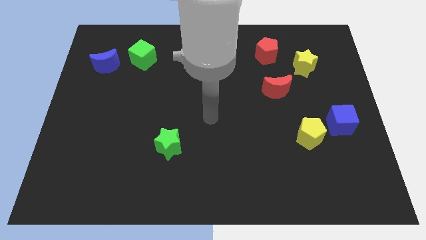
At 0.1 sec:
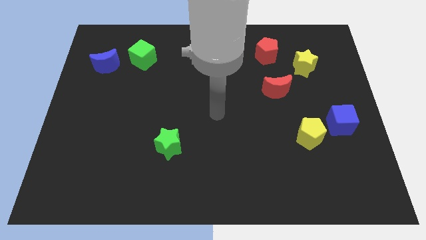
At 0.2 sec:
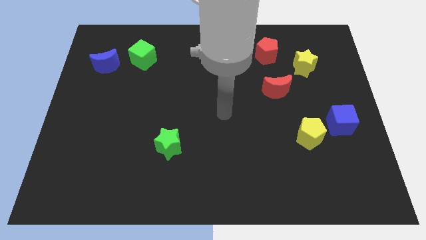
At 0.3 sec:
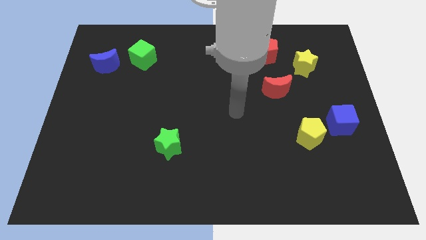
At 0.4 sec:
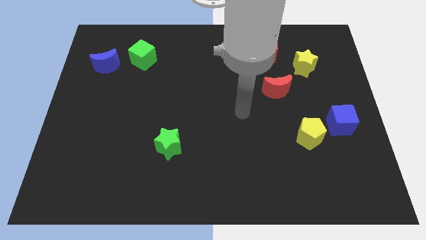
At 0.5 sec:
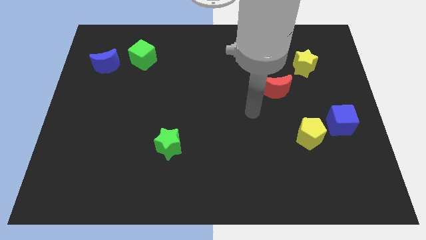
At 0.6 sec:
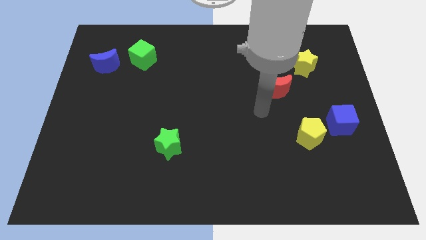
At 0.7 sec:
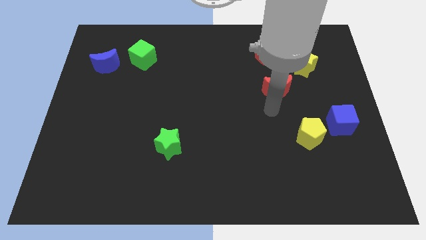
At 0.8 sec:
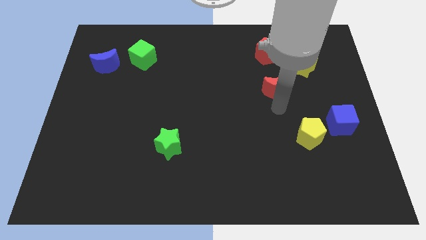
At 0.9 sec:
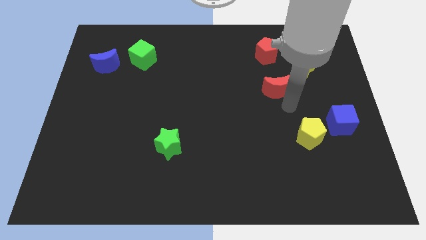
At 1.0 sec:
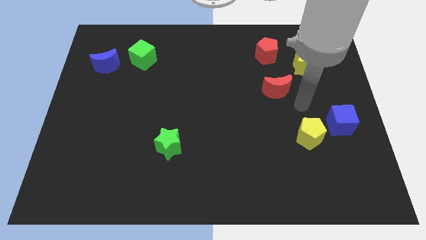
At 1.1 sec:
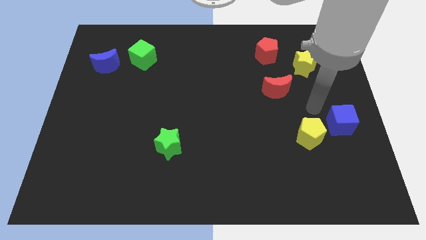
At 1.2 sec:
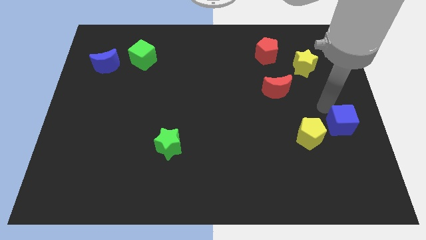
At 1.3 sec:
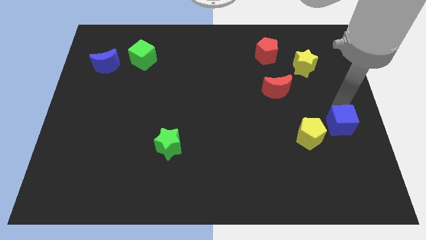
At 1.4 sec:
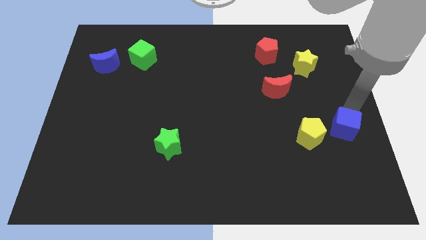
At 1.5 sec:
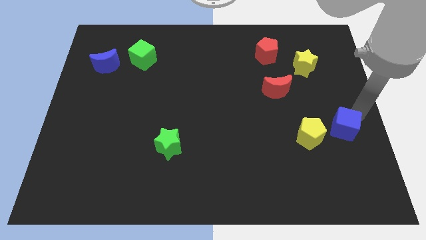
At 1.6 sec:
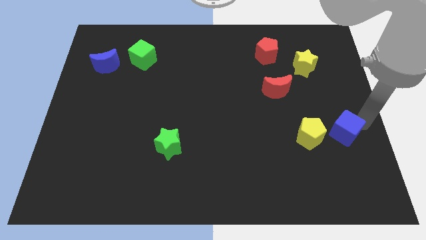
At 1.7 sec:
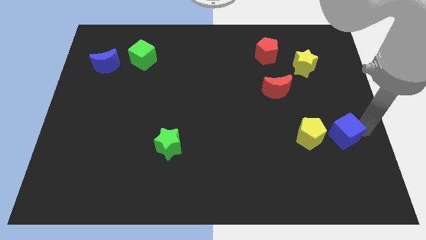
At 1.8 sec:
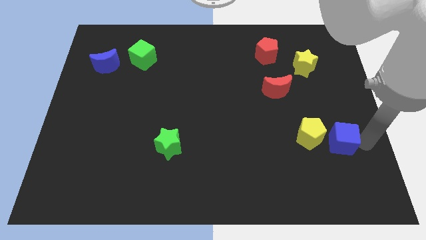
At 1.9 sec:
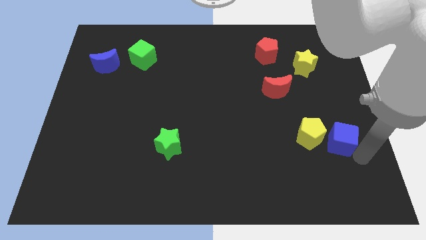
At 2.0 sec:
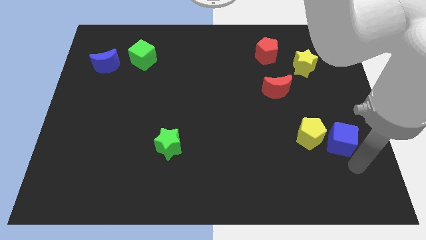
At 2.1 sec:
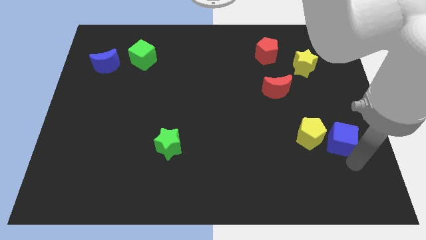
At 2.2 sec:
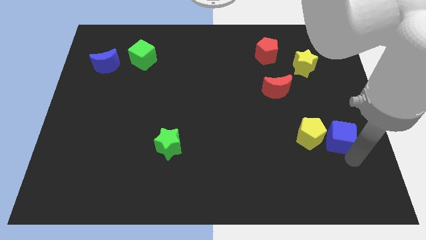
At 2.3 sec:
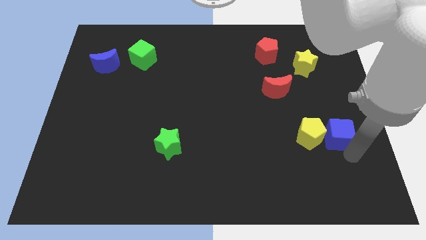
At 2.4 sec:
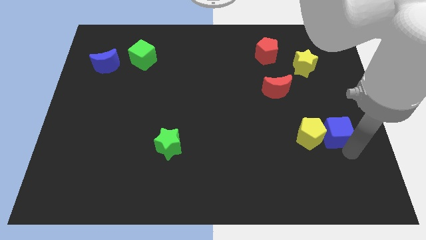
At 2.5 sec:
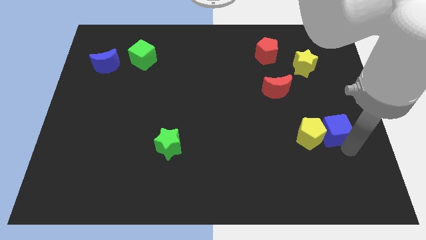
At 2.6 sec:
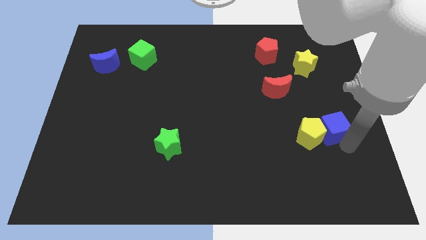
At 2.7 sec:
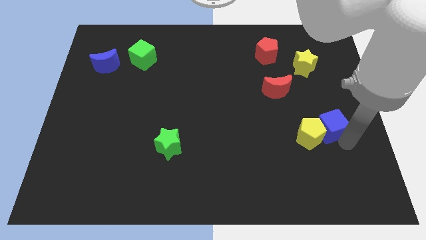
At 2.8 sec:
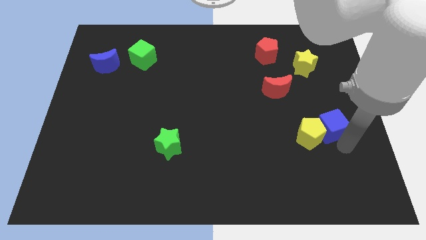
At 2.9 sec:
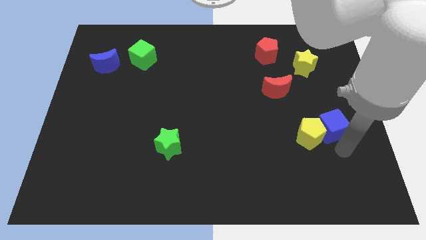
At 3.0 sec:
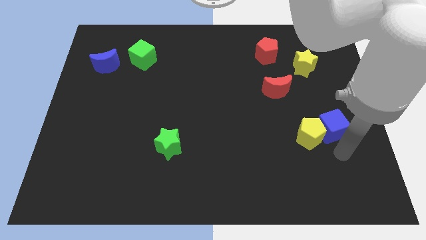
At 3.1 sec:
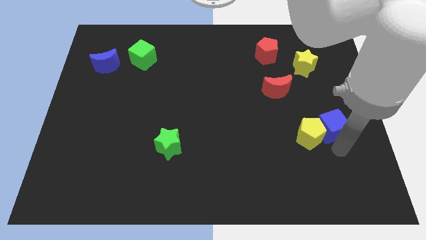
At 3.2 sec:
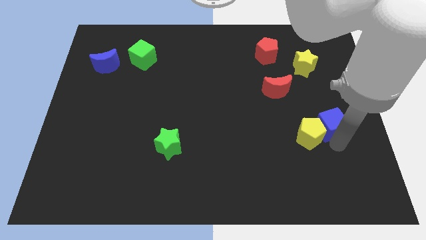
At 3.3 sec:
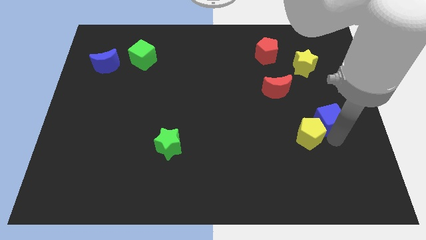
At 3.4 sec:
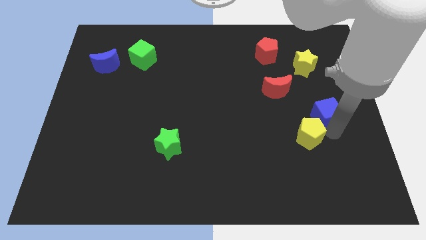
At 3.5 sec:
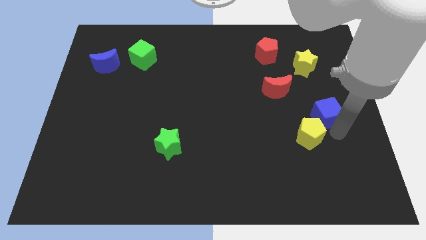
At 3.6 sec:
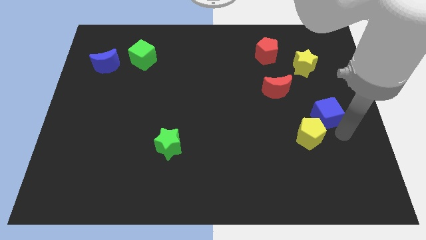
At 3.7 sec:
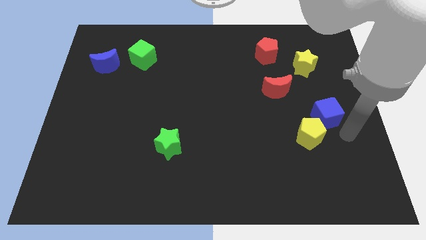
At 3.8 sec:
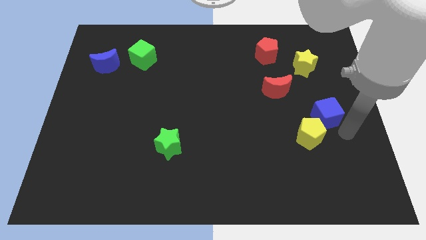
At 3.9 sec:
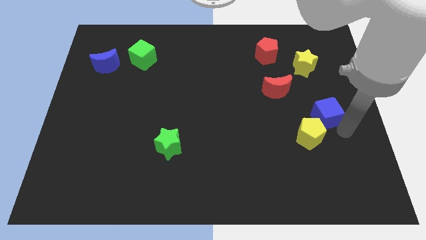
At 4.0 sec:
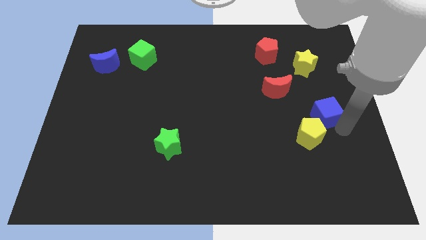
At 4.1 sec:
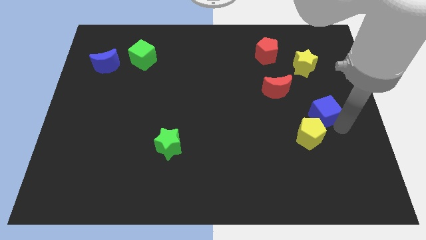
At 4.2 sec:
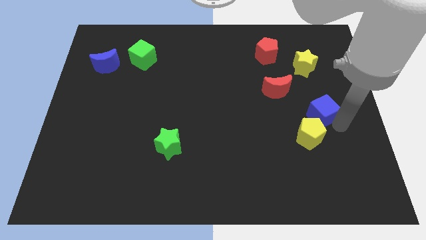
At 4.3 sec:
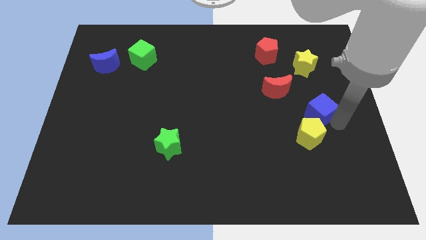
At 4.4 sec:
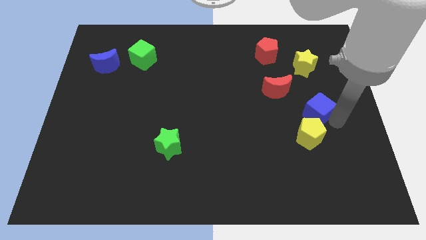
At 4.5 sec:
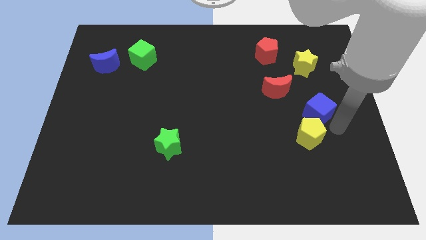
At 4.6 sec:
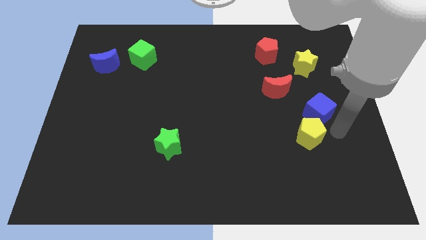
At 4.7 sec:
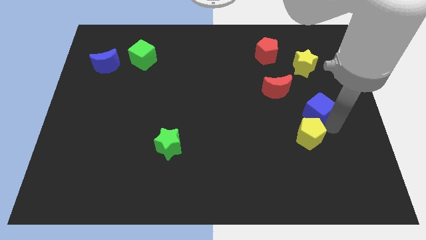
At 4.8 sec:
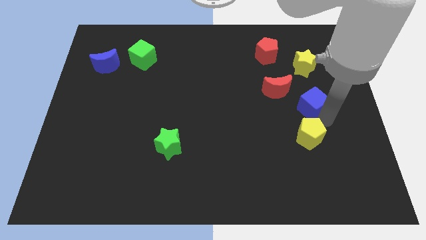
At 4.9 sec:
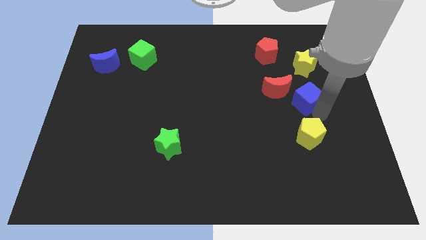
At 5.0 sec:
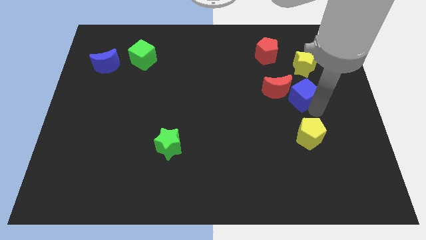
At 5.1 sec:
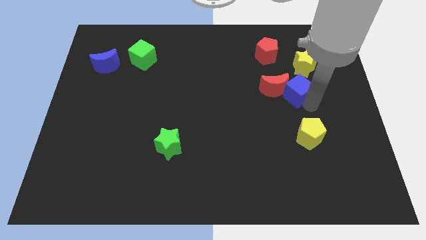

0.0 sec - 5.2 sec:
put the blue cube to the bottom left side of the yellow star

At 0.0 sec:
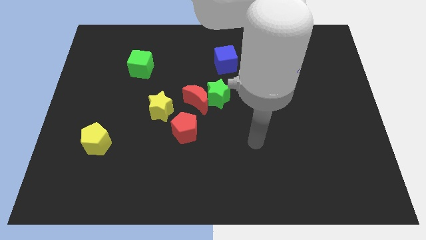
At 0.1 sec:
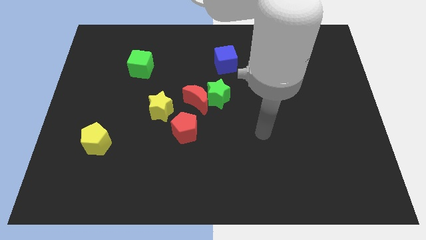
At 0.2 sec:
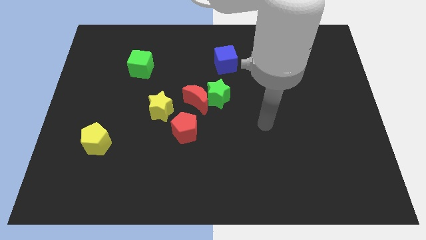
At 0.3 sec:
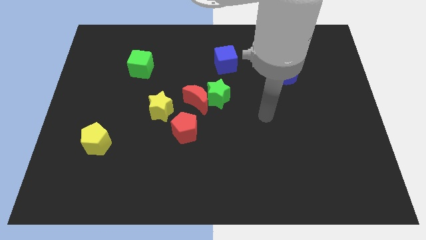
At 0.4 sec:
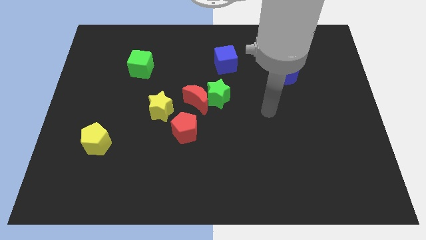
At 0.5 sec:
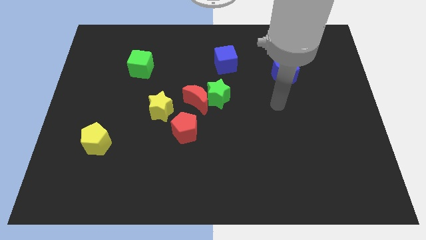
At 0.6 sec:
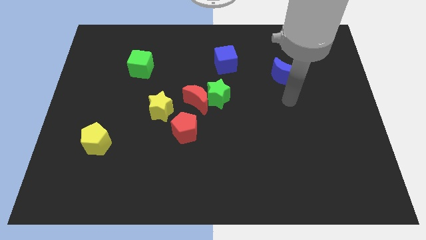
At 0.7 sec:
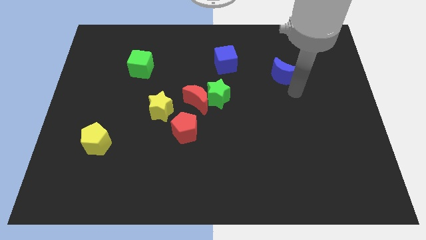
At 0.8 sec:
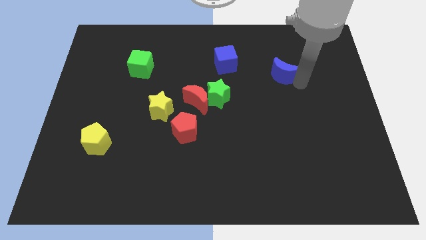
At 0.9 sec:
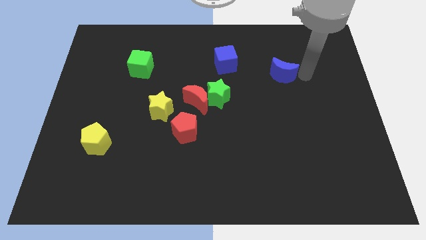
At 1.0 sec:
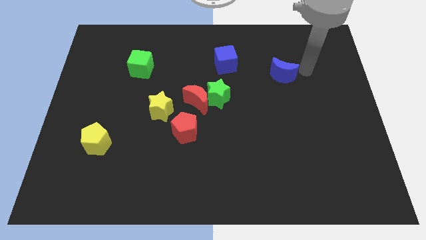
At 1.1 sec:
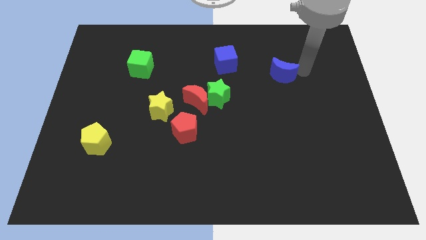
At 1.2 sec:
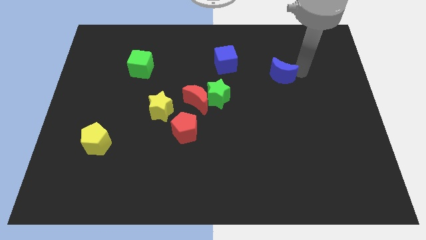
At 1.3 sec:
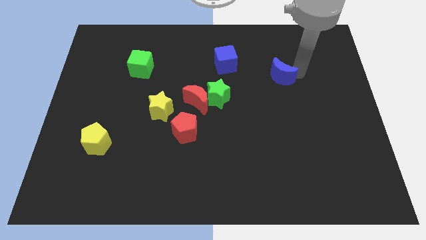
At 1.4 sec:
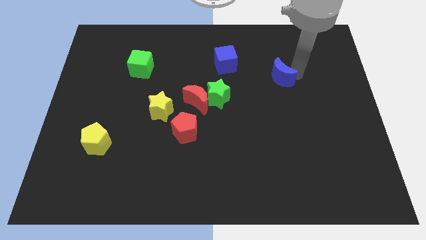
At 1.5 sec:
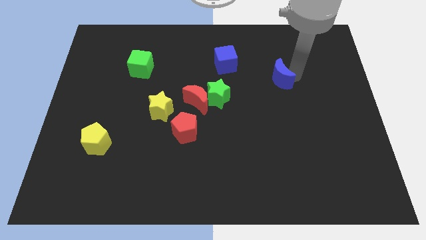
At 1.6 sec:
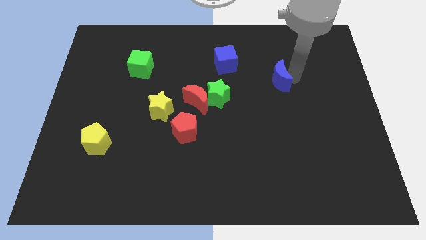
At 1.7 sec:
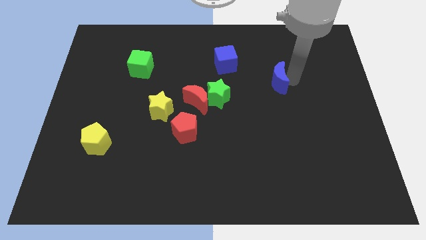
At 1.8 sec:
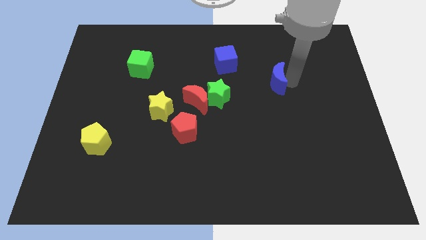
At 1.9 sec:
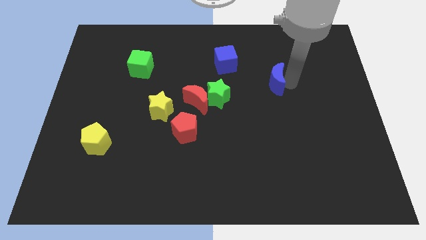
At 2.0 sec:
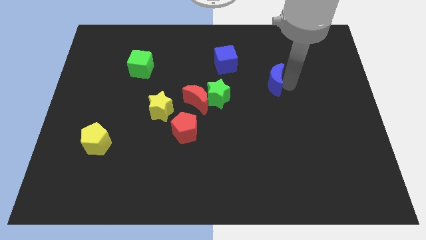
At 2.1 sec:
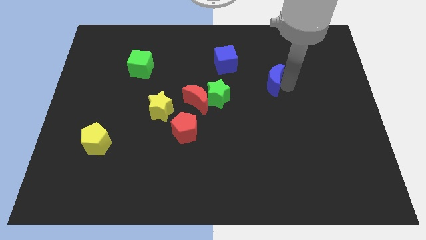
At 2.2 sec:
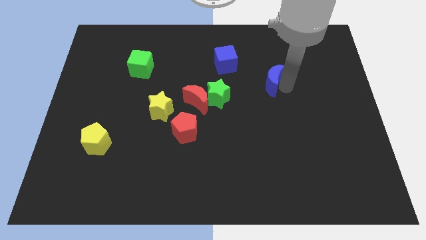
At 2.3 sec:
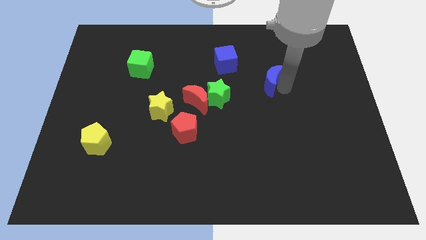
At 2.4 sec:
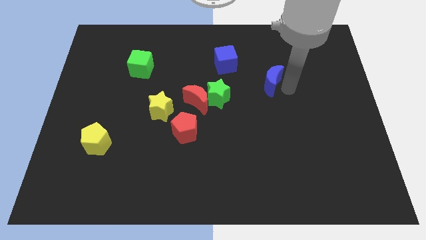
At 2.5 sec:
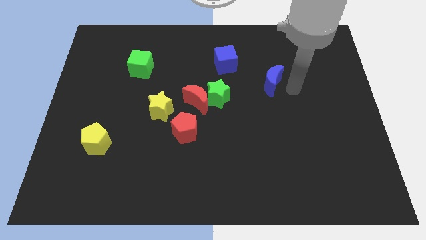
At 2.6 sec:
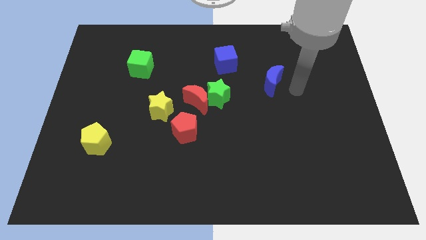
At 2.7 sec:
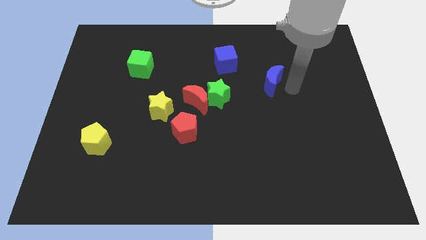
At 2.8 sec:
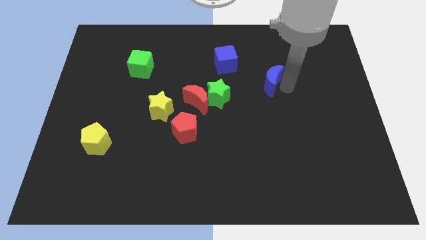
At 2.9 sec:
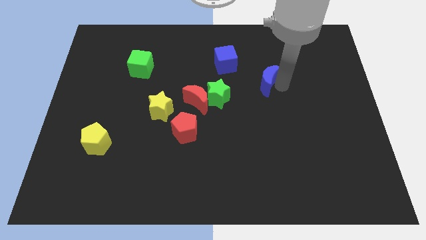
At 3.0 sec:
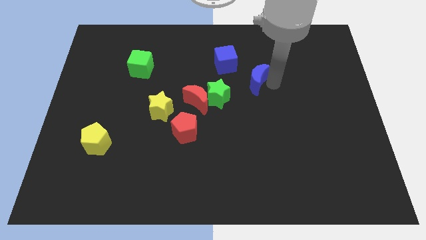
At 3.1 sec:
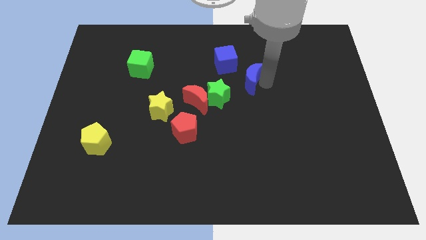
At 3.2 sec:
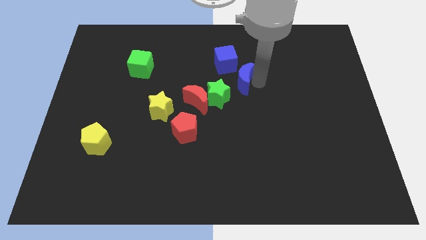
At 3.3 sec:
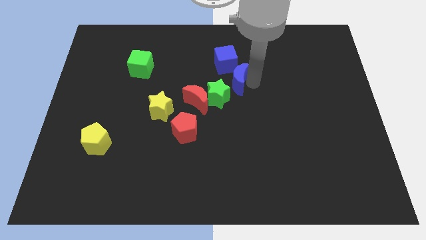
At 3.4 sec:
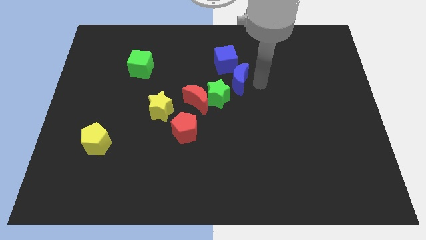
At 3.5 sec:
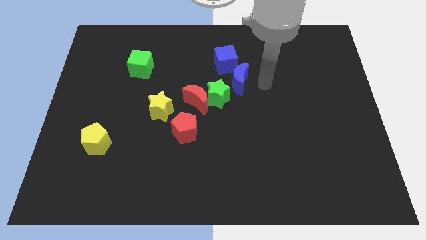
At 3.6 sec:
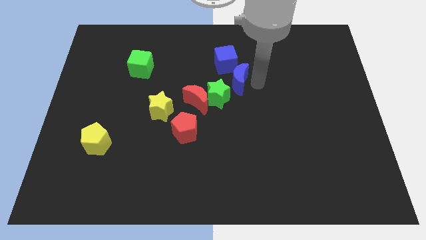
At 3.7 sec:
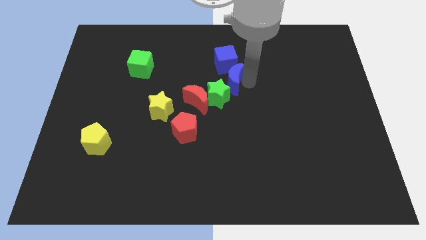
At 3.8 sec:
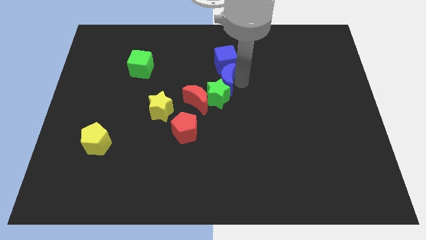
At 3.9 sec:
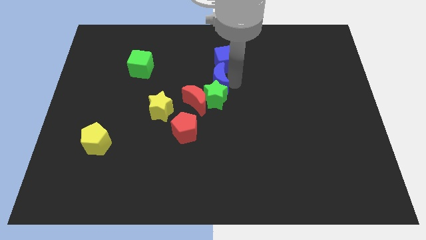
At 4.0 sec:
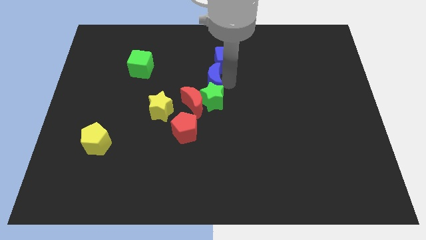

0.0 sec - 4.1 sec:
push the blue moon to the top of the red moon
